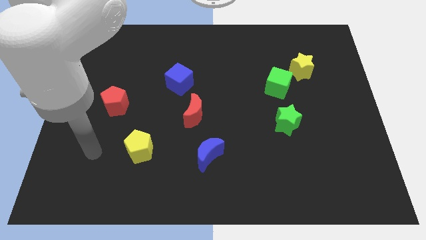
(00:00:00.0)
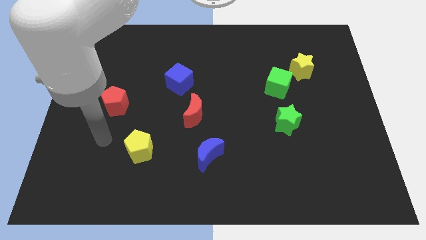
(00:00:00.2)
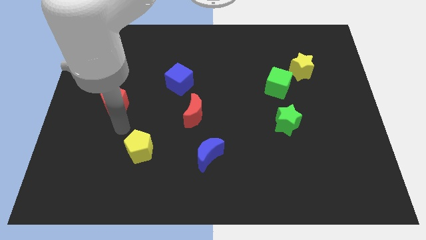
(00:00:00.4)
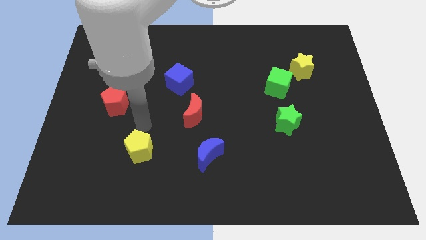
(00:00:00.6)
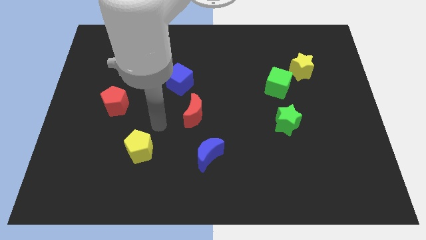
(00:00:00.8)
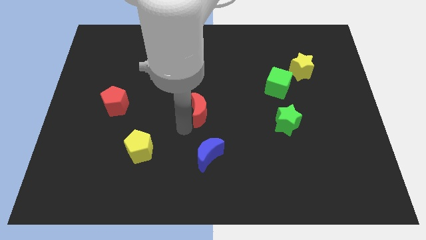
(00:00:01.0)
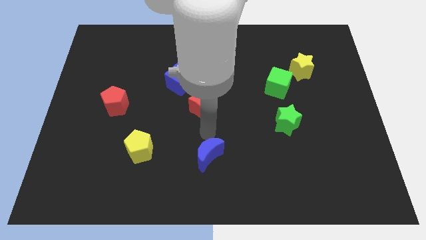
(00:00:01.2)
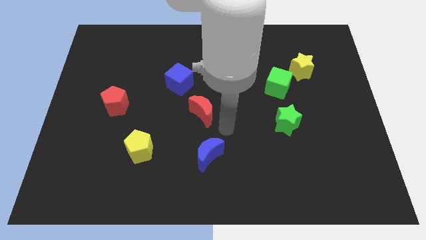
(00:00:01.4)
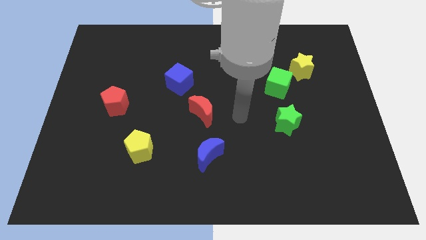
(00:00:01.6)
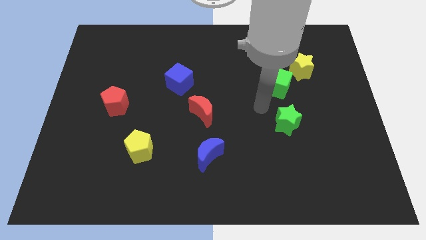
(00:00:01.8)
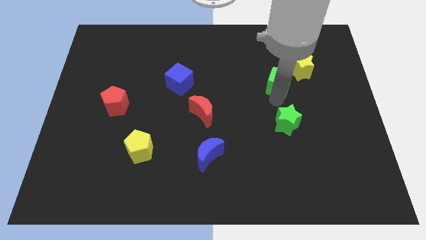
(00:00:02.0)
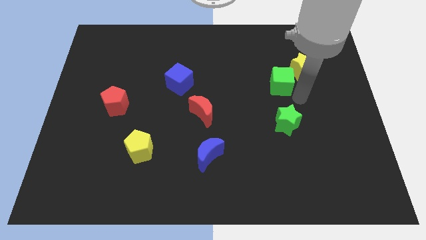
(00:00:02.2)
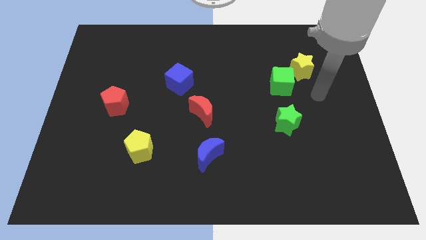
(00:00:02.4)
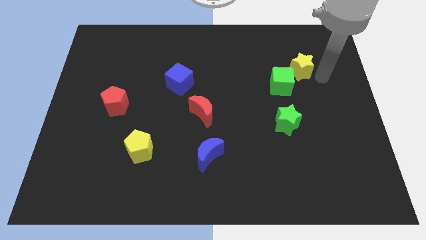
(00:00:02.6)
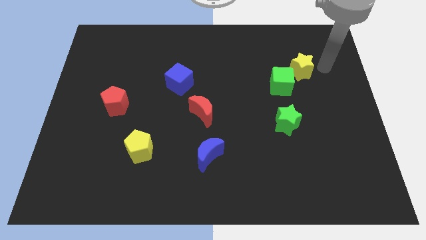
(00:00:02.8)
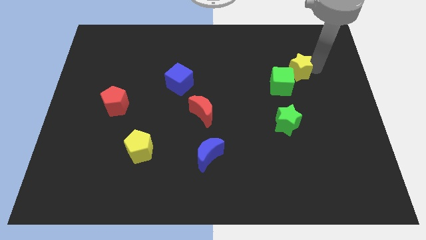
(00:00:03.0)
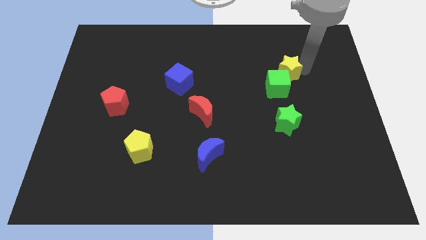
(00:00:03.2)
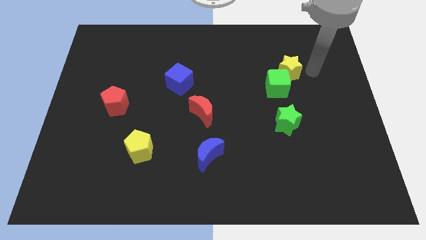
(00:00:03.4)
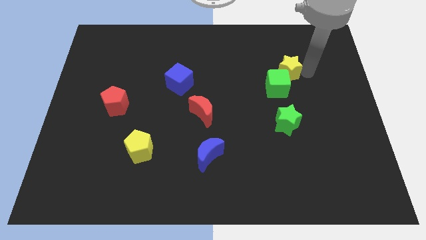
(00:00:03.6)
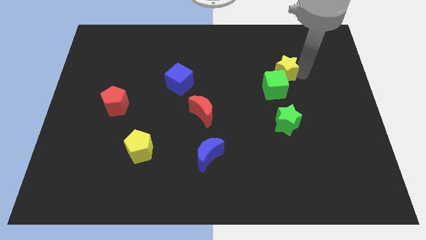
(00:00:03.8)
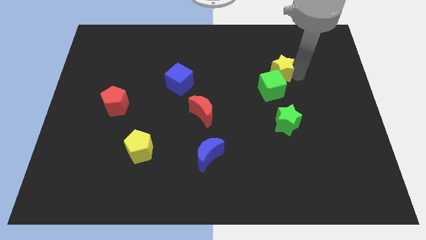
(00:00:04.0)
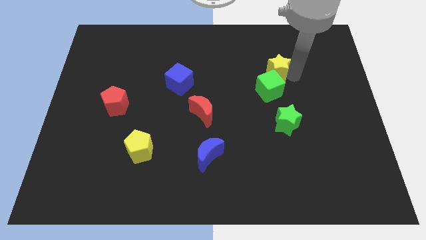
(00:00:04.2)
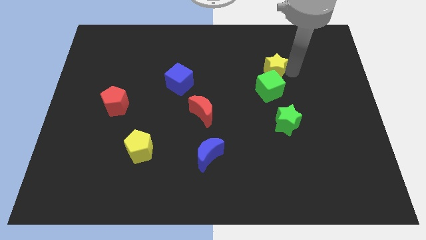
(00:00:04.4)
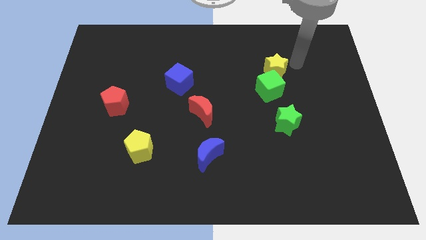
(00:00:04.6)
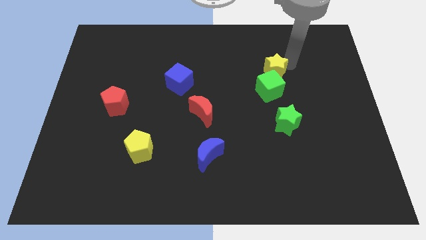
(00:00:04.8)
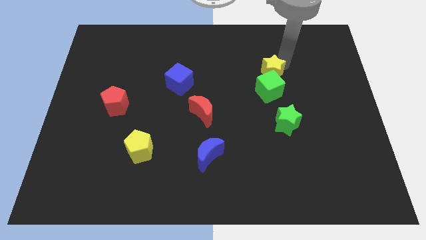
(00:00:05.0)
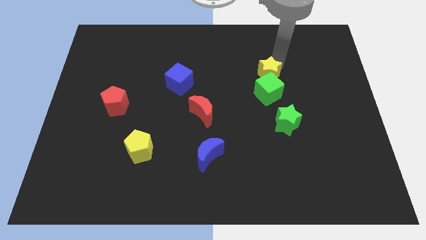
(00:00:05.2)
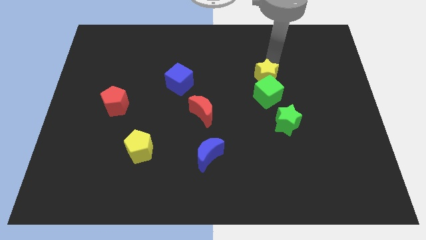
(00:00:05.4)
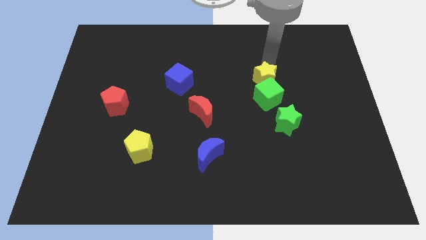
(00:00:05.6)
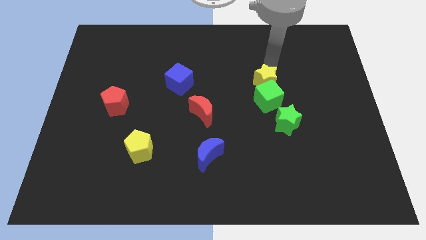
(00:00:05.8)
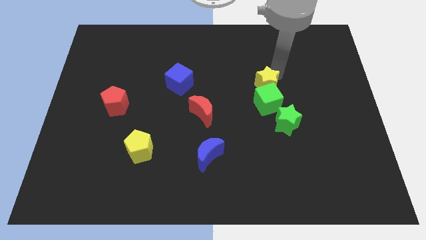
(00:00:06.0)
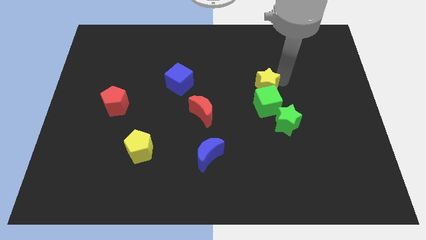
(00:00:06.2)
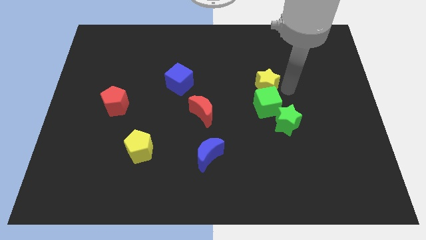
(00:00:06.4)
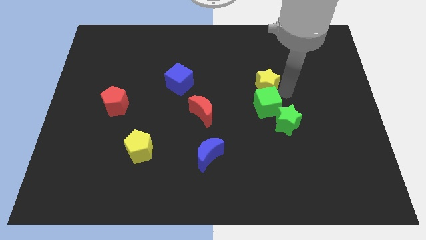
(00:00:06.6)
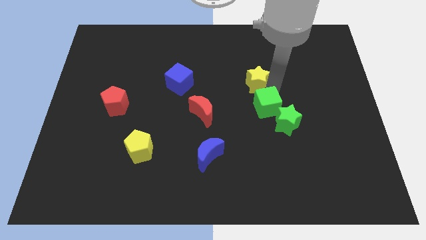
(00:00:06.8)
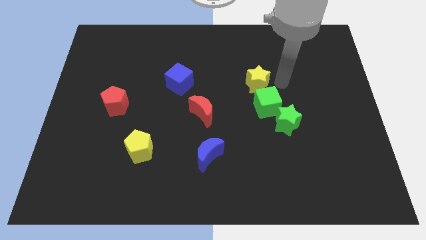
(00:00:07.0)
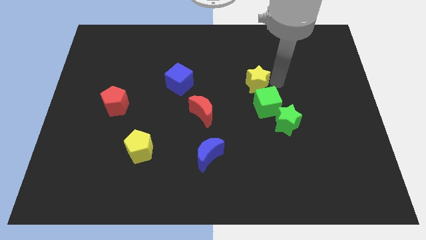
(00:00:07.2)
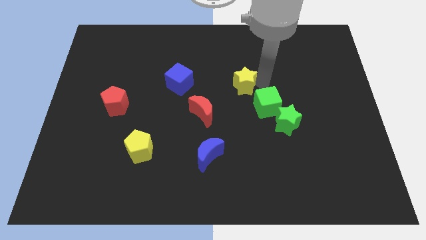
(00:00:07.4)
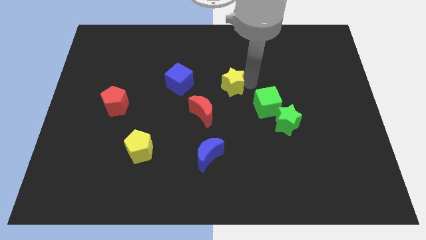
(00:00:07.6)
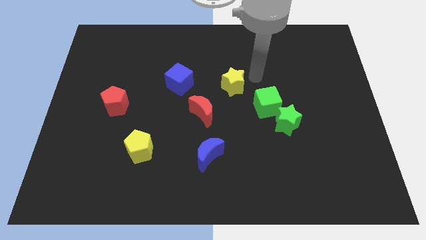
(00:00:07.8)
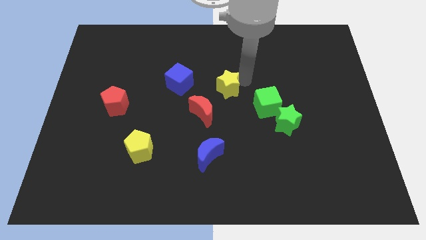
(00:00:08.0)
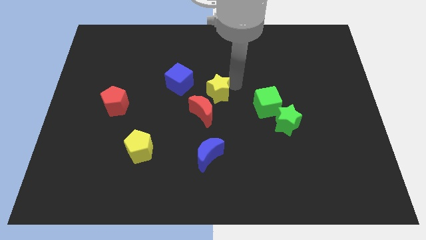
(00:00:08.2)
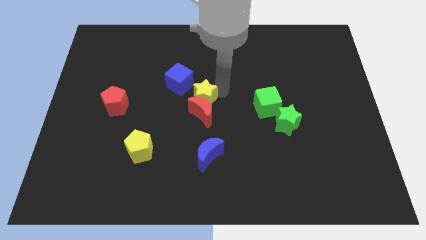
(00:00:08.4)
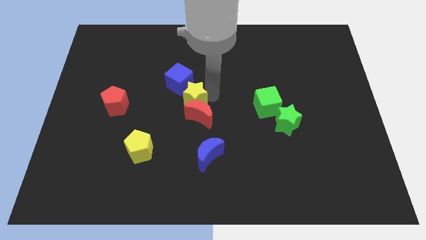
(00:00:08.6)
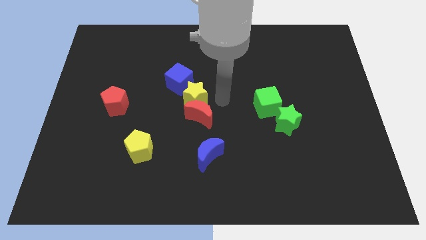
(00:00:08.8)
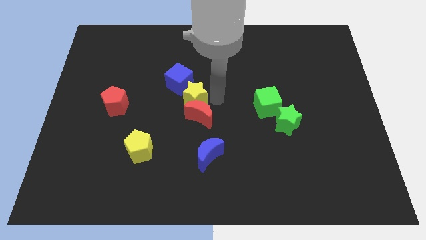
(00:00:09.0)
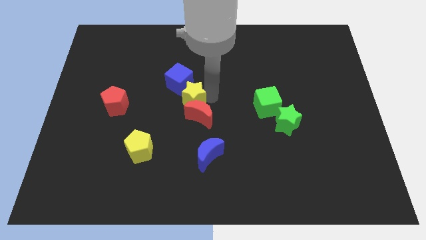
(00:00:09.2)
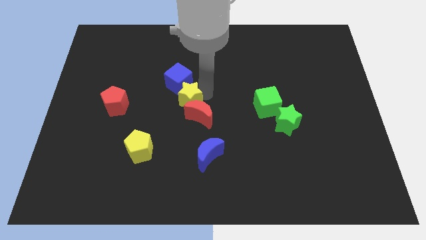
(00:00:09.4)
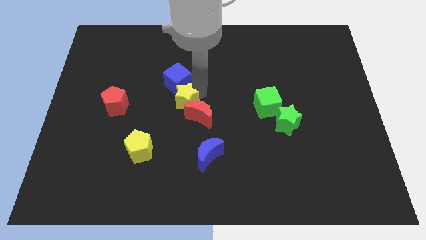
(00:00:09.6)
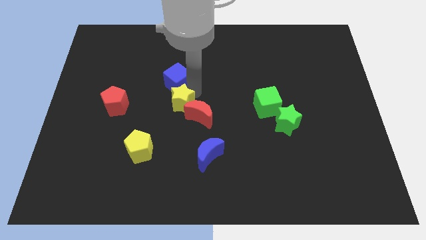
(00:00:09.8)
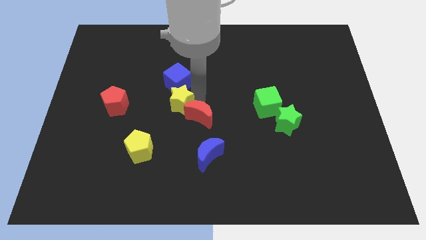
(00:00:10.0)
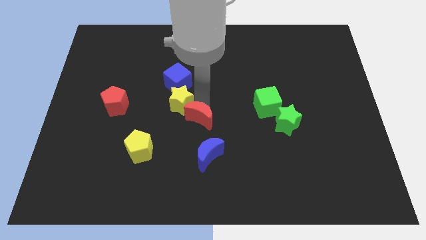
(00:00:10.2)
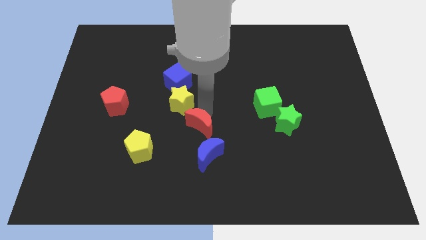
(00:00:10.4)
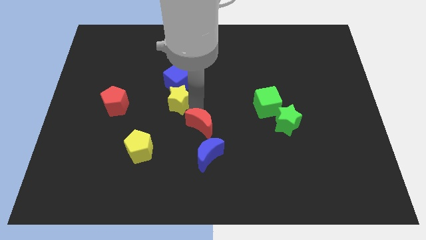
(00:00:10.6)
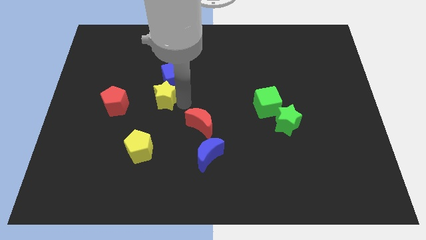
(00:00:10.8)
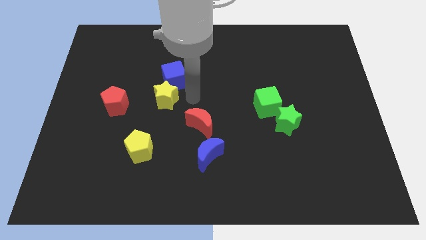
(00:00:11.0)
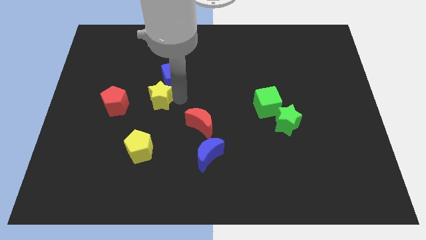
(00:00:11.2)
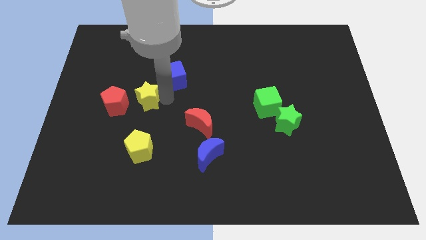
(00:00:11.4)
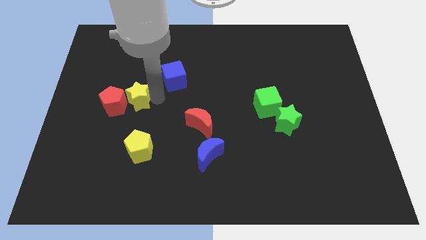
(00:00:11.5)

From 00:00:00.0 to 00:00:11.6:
move the yellow star towards the red pentagon

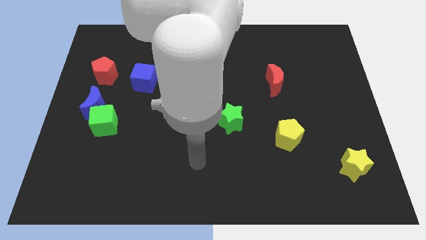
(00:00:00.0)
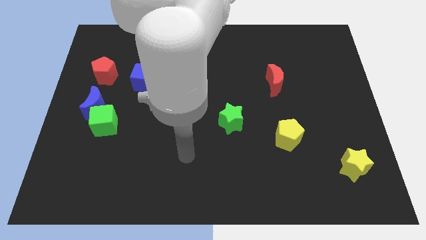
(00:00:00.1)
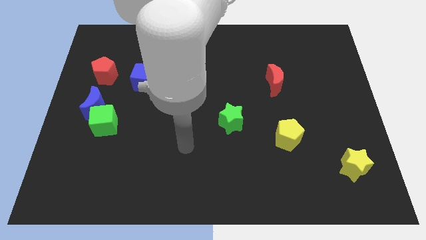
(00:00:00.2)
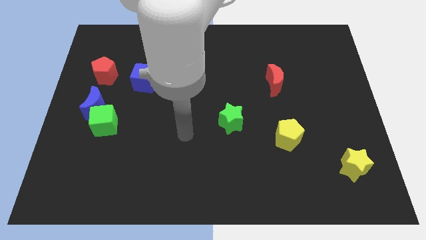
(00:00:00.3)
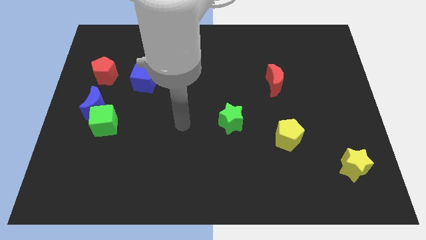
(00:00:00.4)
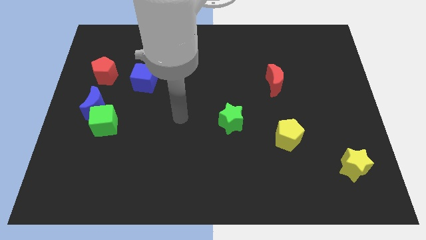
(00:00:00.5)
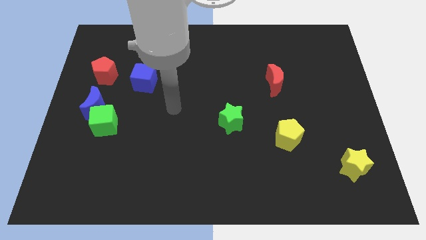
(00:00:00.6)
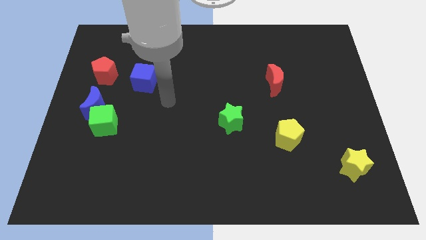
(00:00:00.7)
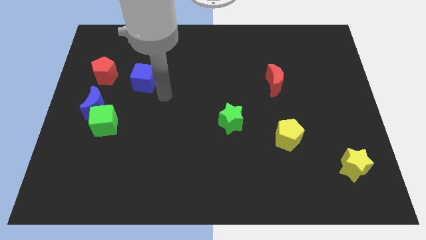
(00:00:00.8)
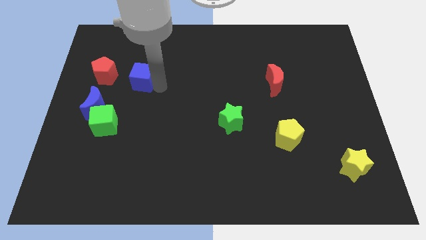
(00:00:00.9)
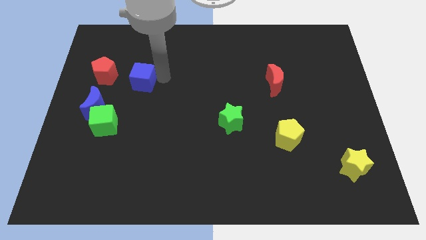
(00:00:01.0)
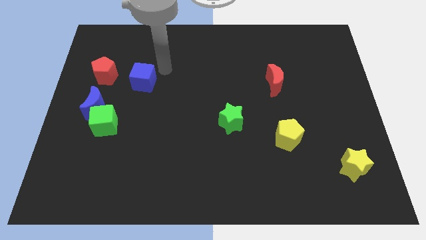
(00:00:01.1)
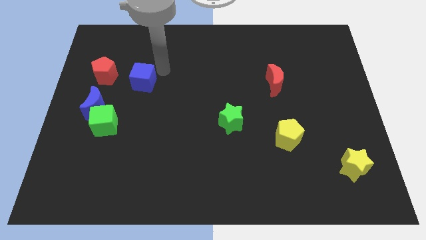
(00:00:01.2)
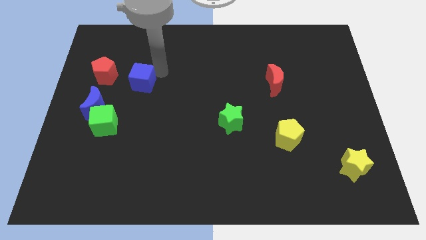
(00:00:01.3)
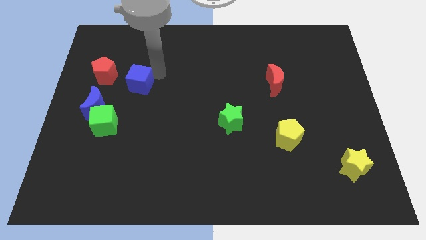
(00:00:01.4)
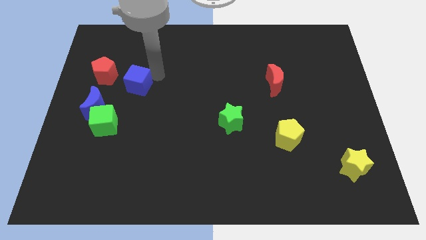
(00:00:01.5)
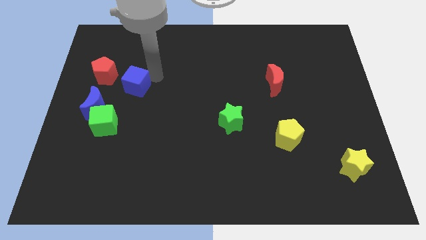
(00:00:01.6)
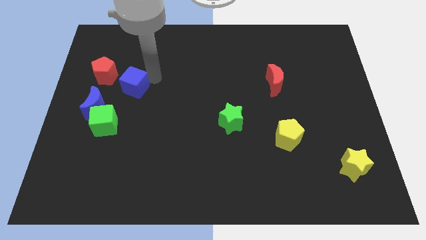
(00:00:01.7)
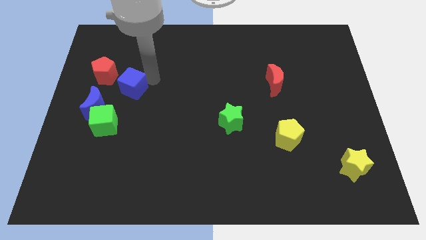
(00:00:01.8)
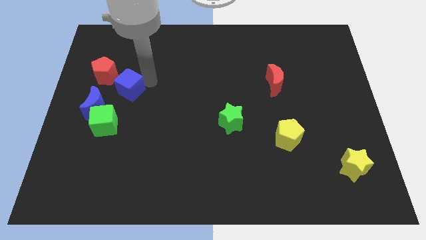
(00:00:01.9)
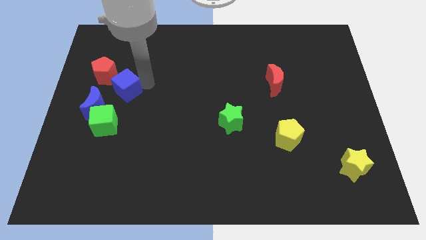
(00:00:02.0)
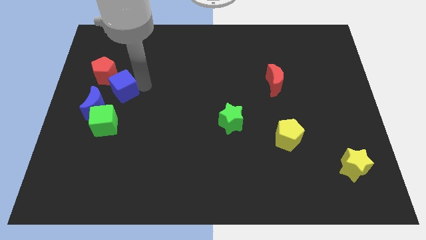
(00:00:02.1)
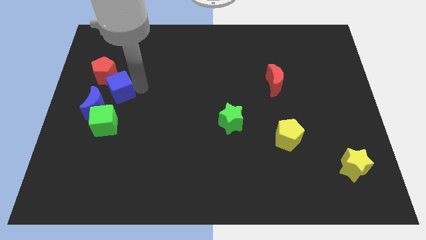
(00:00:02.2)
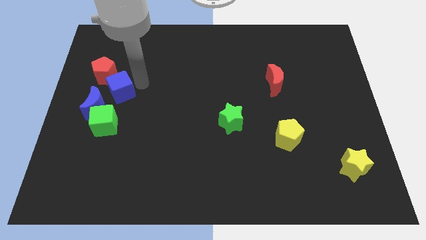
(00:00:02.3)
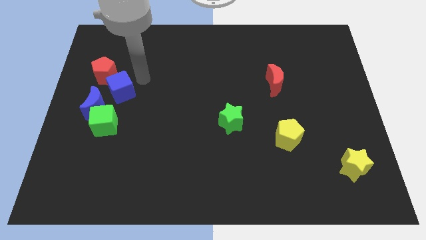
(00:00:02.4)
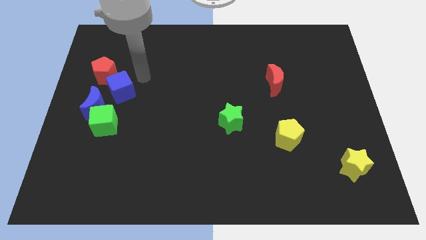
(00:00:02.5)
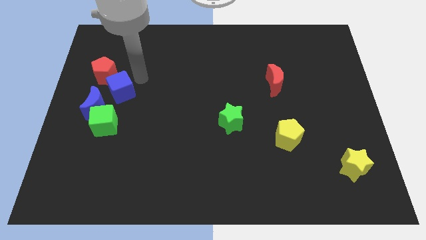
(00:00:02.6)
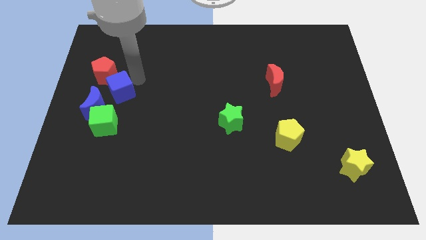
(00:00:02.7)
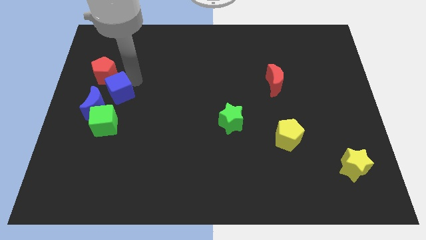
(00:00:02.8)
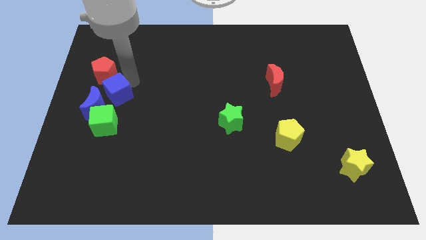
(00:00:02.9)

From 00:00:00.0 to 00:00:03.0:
push the blue cube next to the blue moon
